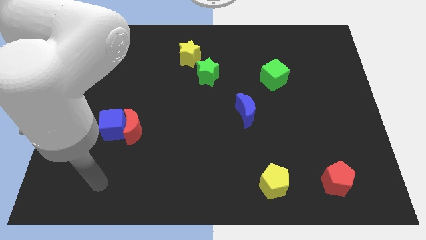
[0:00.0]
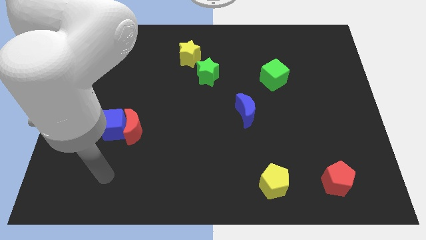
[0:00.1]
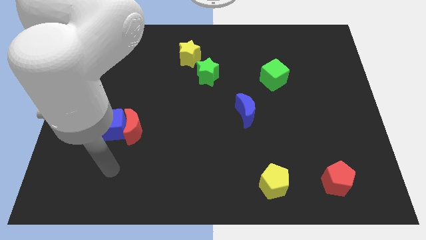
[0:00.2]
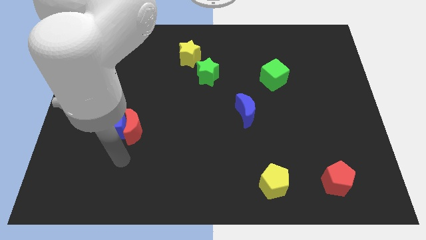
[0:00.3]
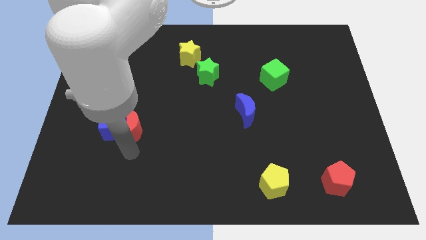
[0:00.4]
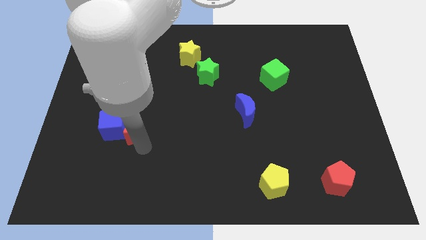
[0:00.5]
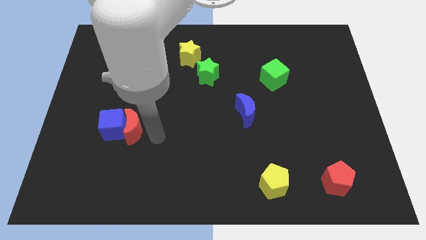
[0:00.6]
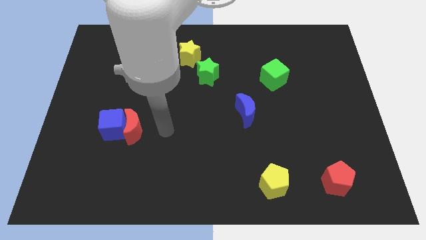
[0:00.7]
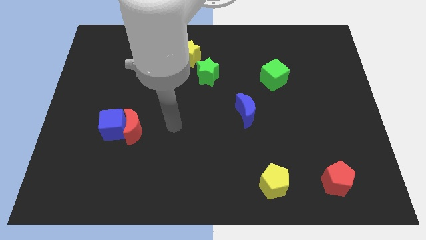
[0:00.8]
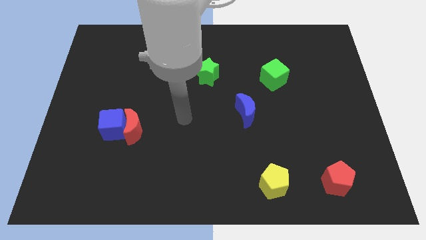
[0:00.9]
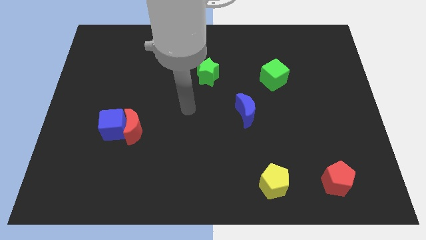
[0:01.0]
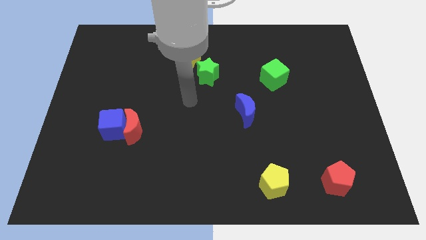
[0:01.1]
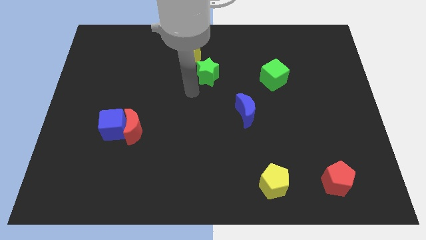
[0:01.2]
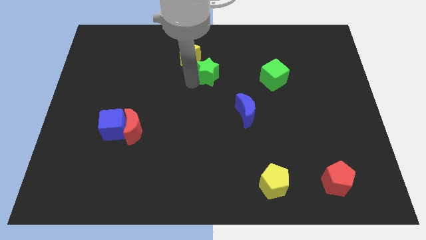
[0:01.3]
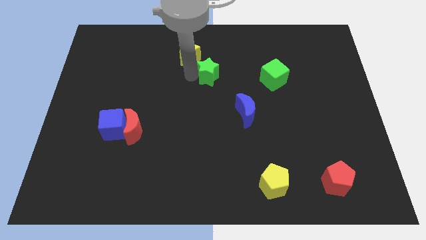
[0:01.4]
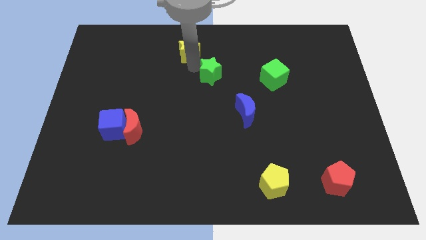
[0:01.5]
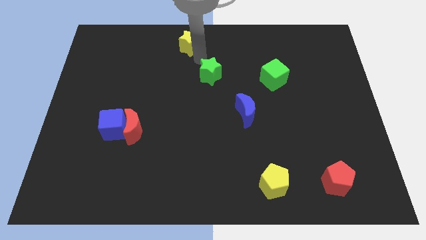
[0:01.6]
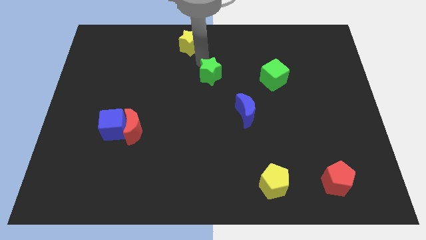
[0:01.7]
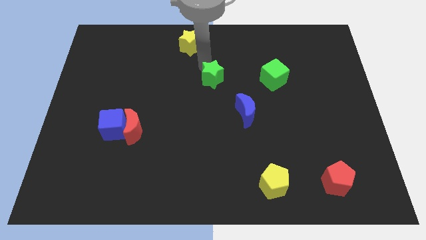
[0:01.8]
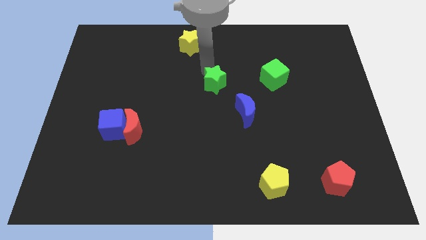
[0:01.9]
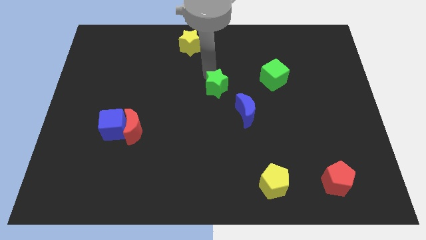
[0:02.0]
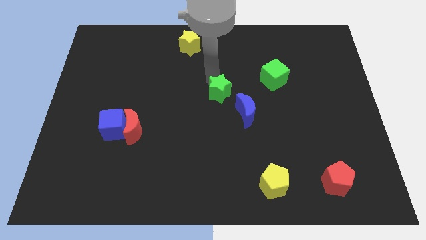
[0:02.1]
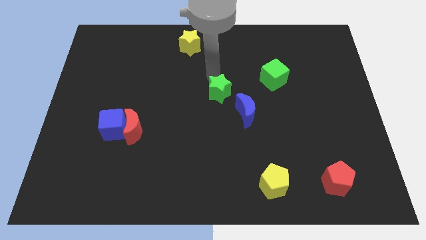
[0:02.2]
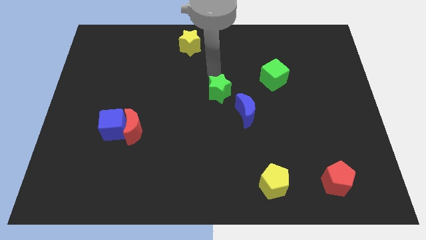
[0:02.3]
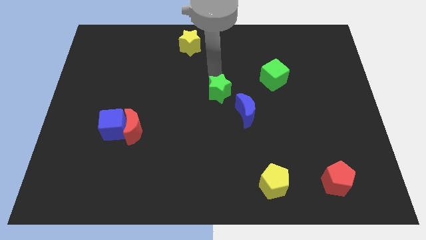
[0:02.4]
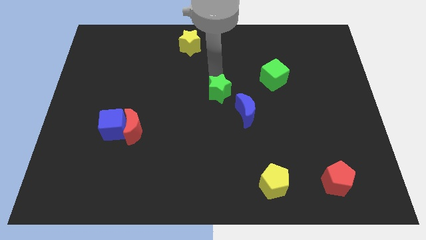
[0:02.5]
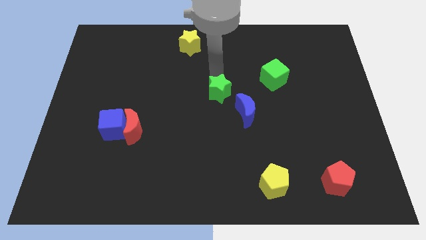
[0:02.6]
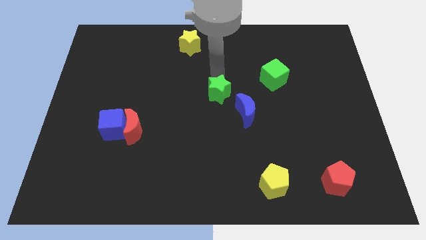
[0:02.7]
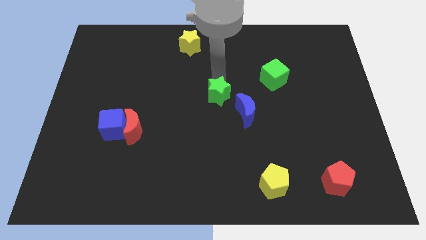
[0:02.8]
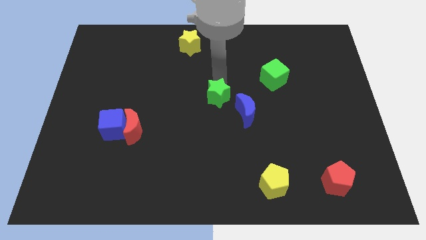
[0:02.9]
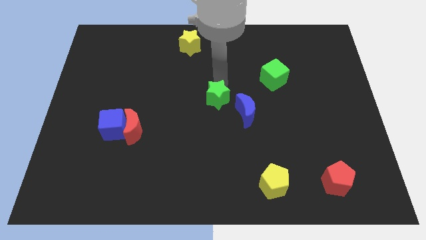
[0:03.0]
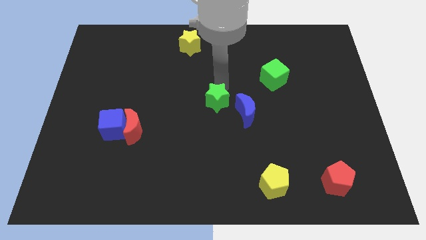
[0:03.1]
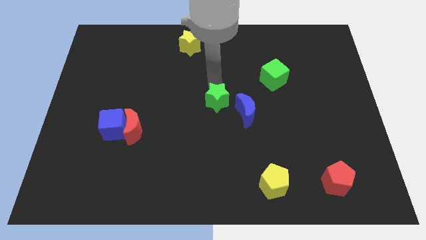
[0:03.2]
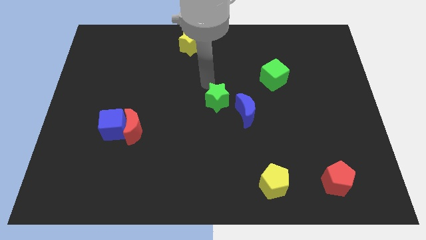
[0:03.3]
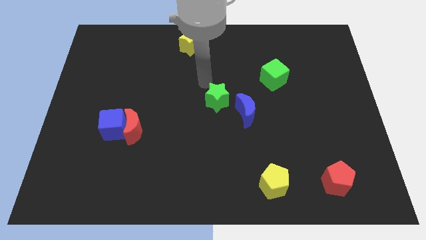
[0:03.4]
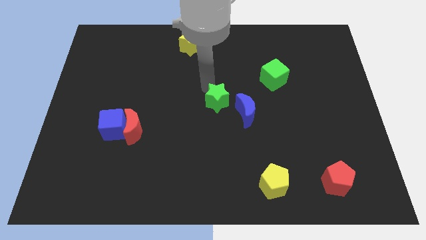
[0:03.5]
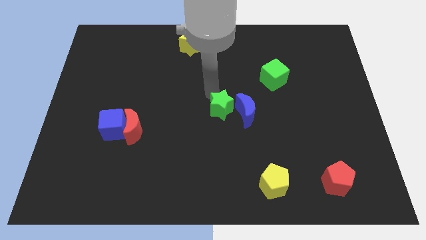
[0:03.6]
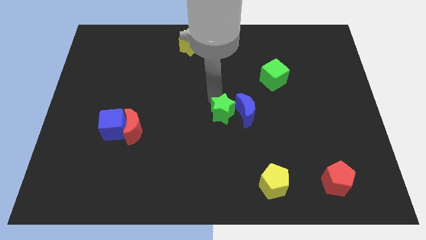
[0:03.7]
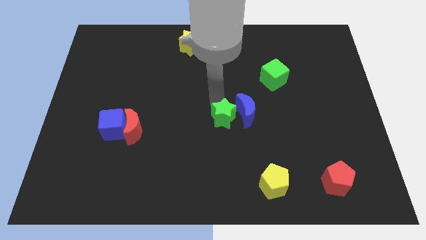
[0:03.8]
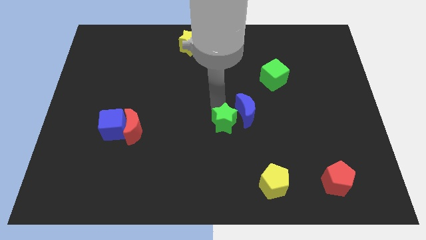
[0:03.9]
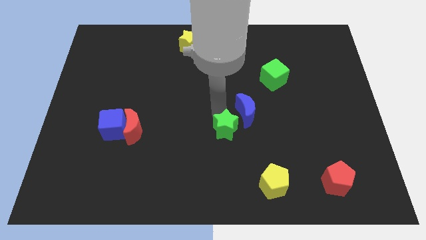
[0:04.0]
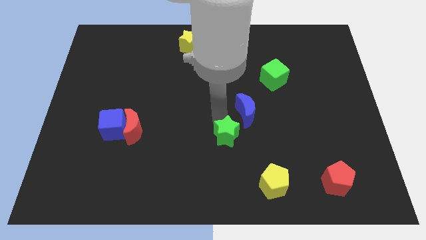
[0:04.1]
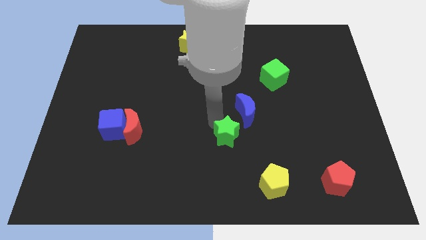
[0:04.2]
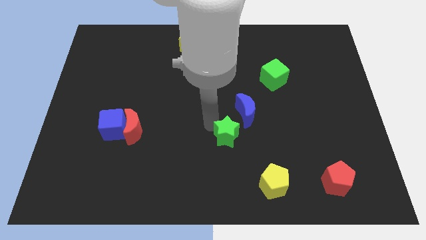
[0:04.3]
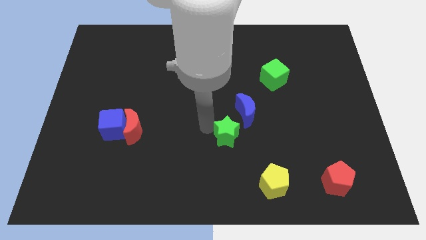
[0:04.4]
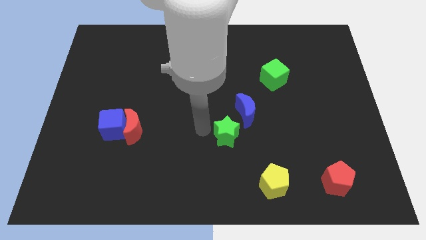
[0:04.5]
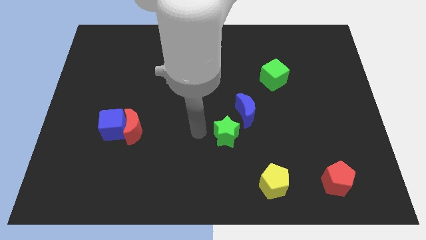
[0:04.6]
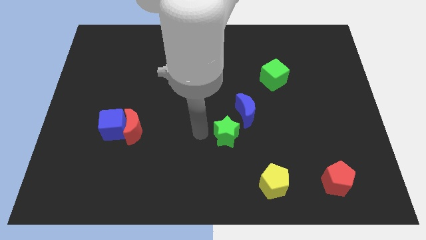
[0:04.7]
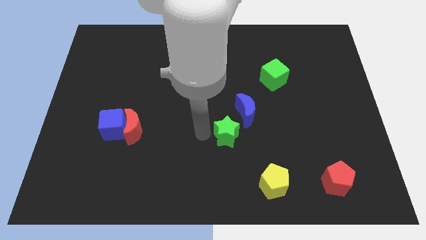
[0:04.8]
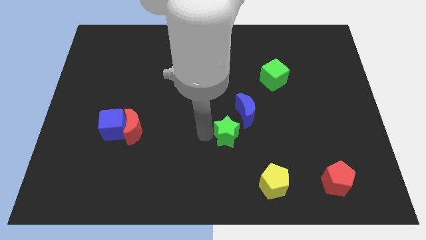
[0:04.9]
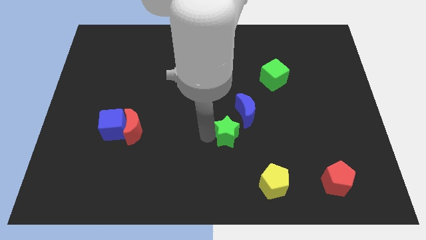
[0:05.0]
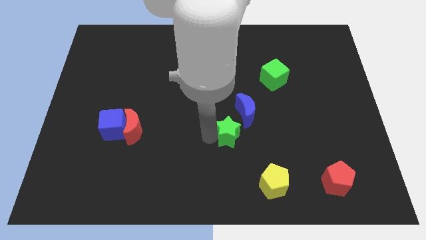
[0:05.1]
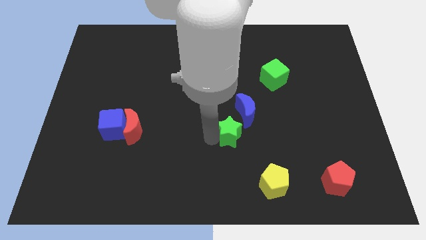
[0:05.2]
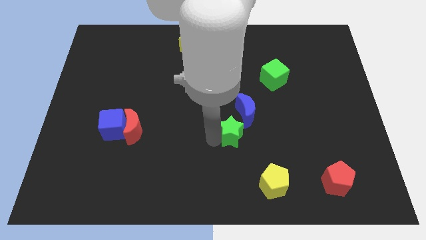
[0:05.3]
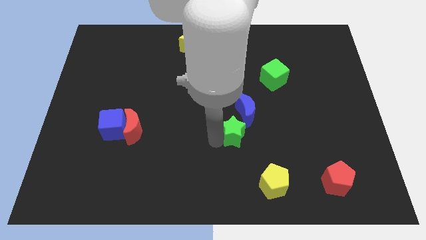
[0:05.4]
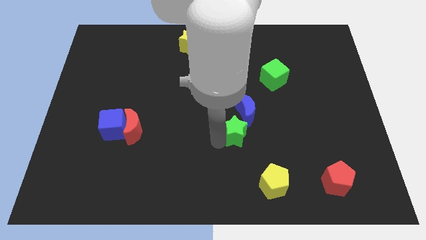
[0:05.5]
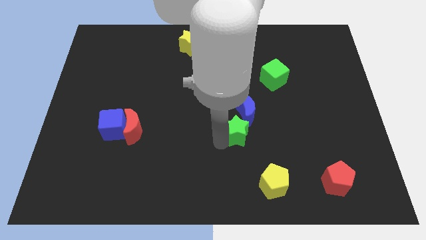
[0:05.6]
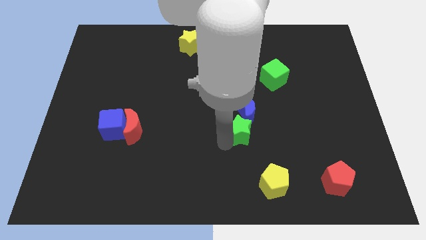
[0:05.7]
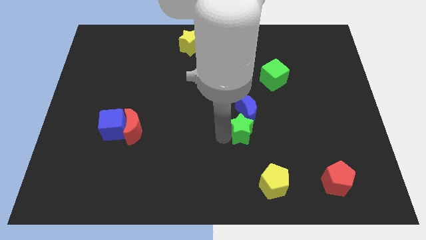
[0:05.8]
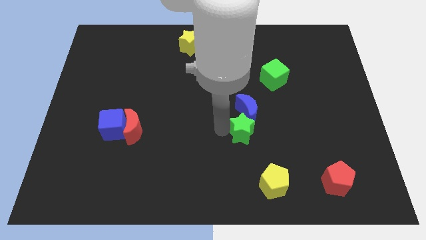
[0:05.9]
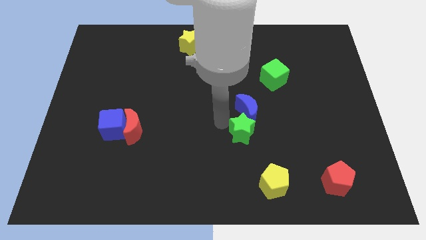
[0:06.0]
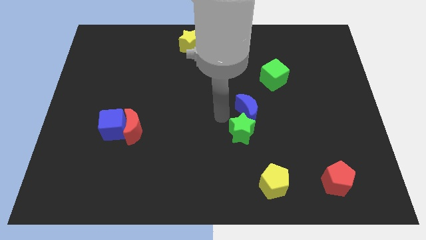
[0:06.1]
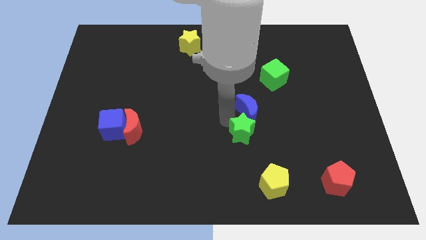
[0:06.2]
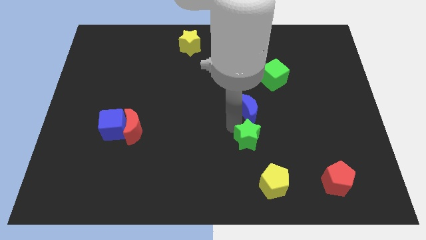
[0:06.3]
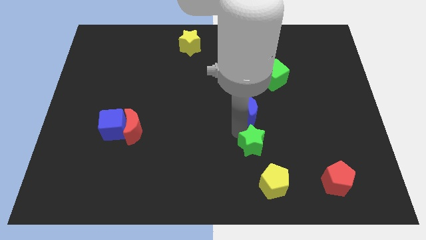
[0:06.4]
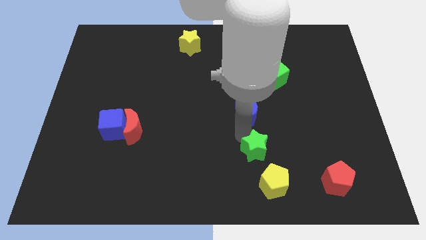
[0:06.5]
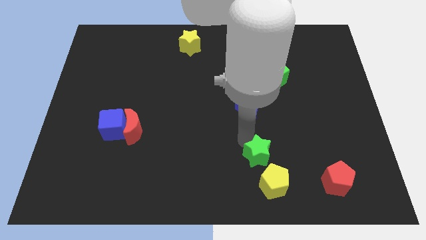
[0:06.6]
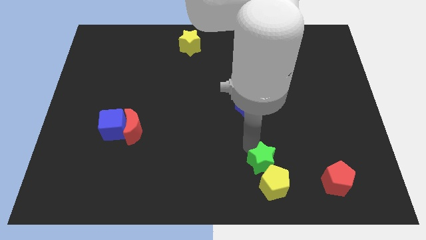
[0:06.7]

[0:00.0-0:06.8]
move the green star to the yellow pentagon
